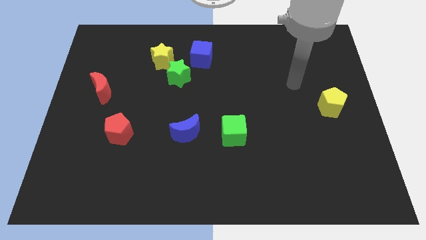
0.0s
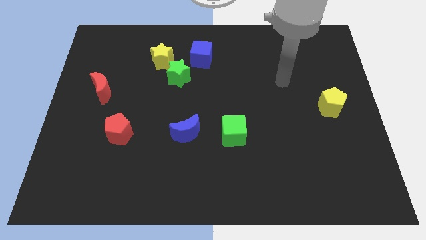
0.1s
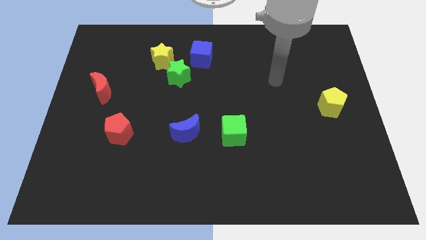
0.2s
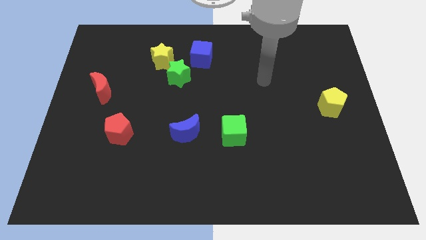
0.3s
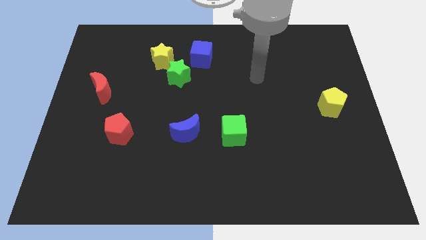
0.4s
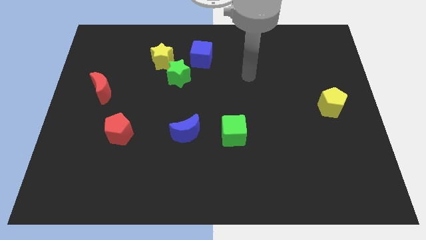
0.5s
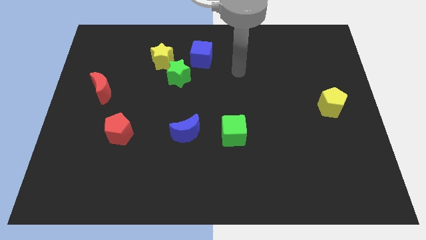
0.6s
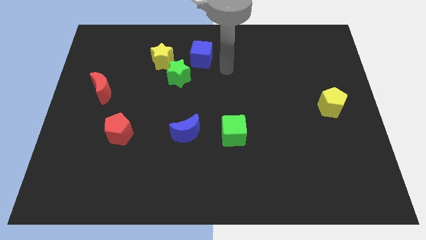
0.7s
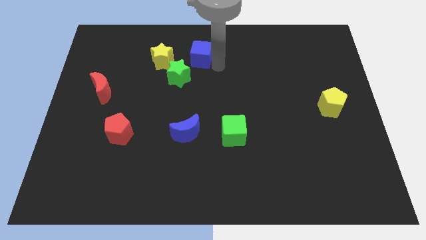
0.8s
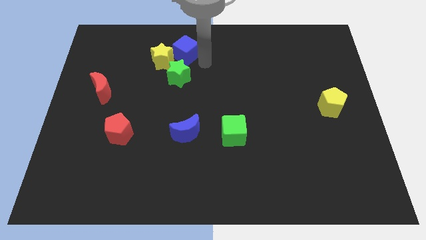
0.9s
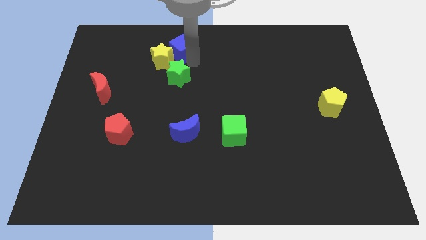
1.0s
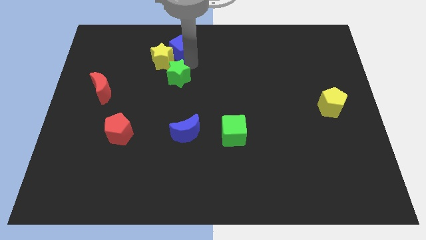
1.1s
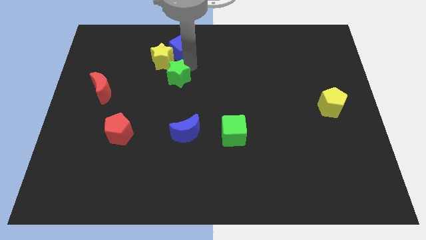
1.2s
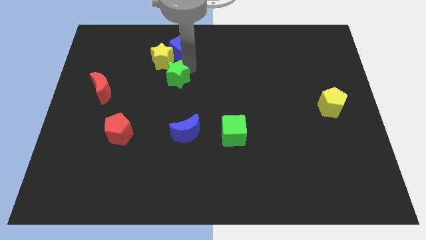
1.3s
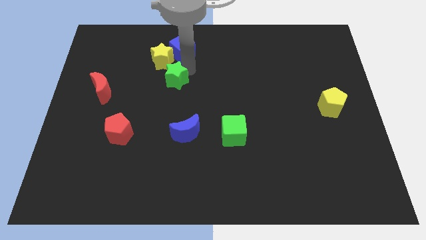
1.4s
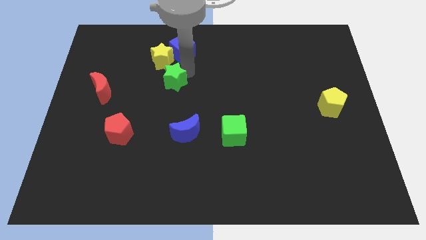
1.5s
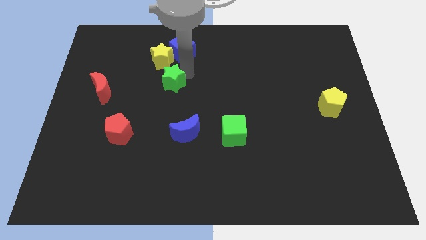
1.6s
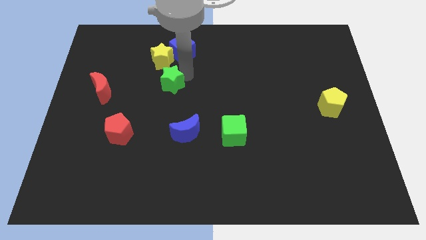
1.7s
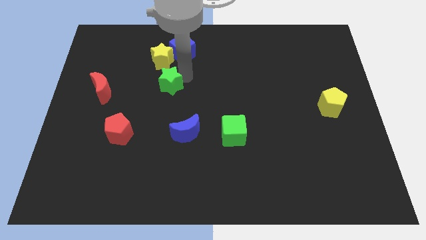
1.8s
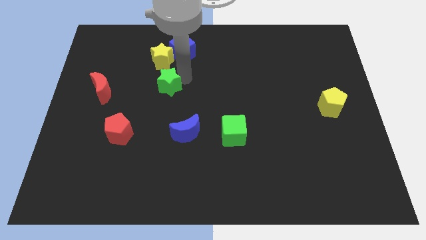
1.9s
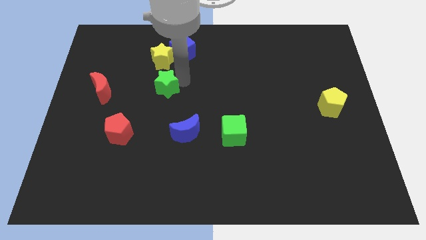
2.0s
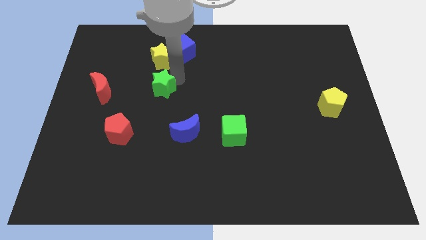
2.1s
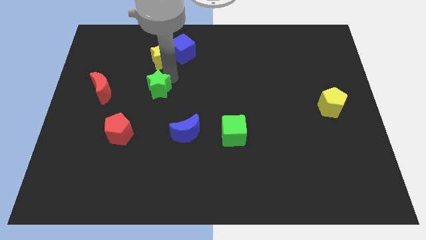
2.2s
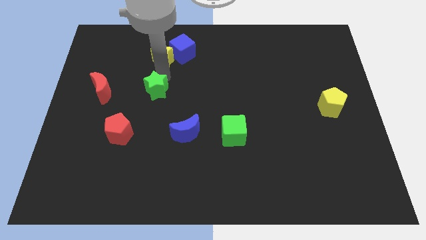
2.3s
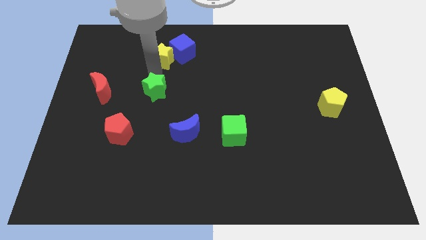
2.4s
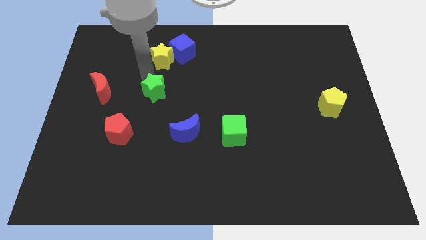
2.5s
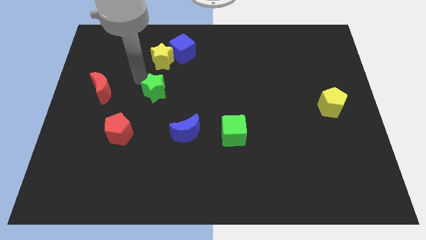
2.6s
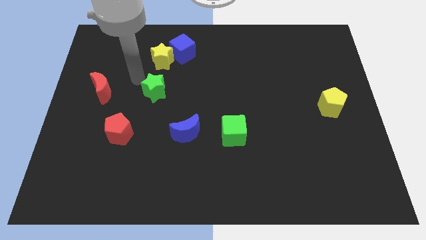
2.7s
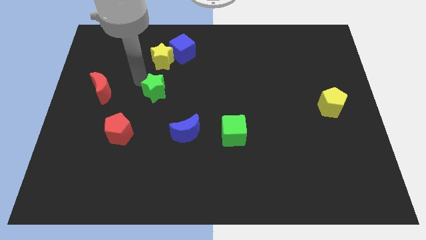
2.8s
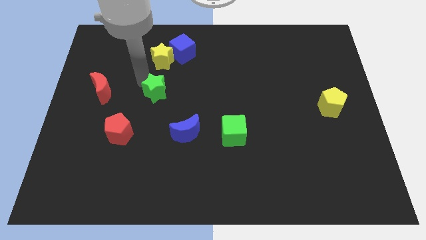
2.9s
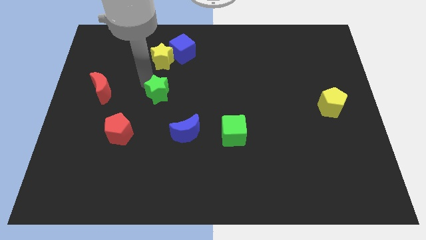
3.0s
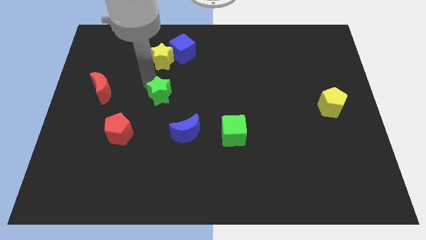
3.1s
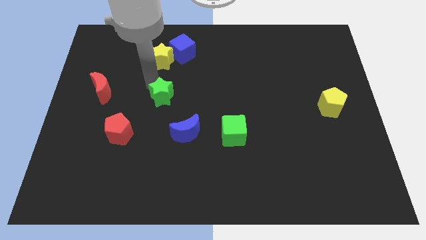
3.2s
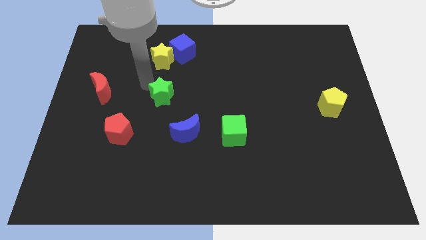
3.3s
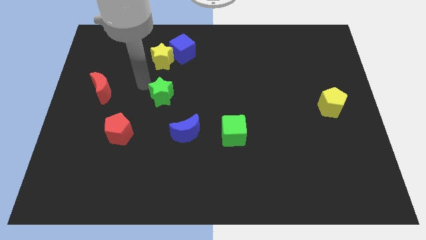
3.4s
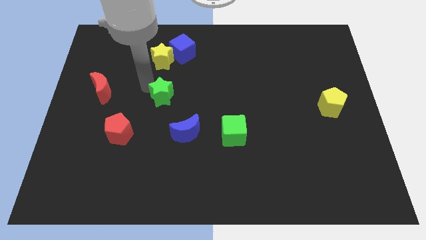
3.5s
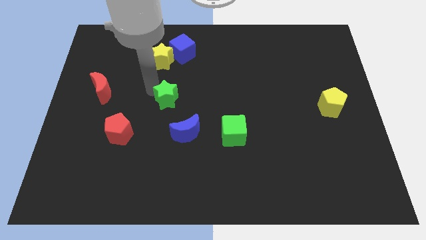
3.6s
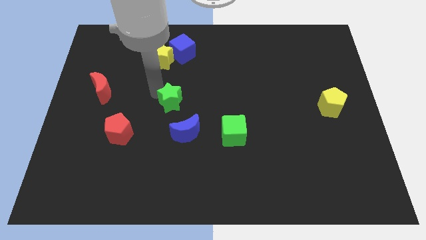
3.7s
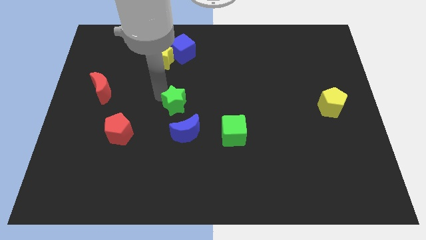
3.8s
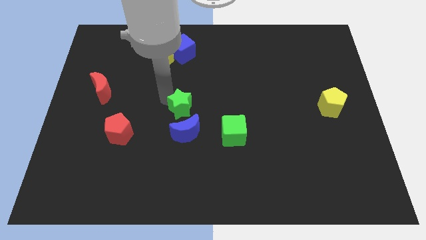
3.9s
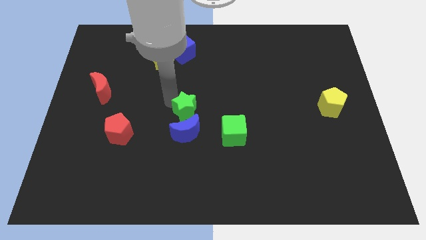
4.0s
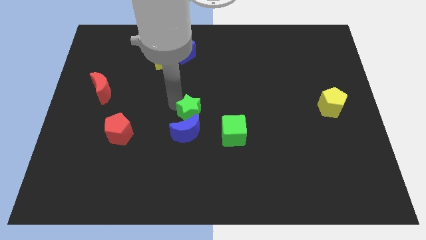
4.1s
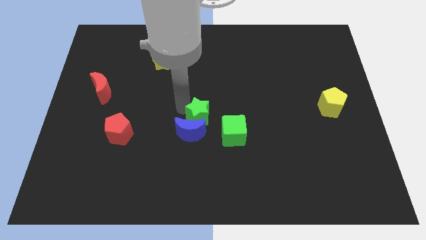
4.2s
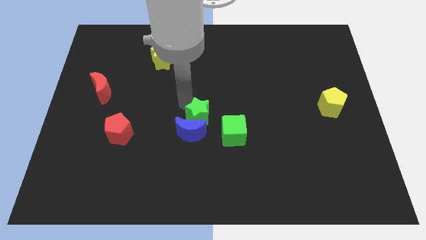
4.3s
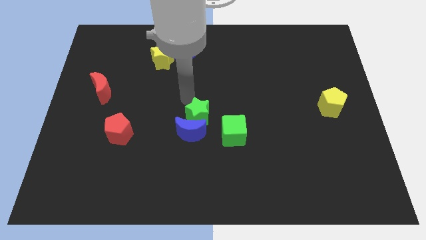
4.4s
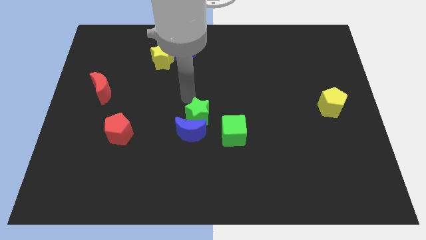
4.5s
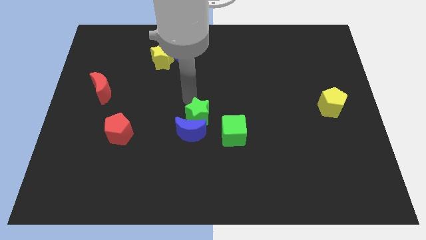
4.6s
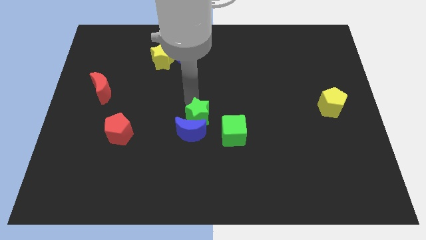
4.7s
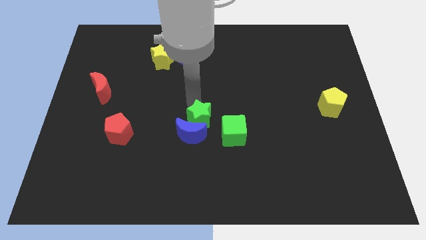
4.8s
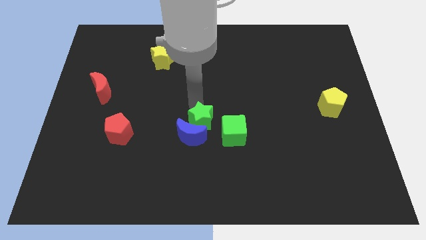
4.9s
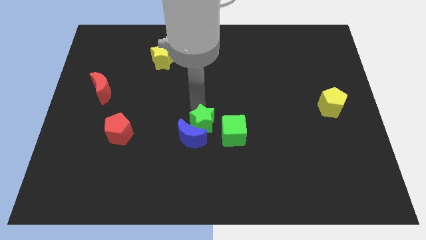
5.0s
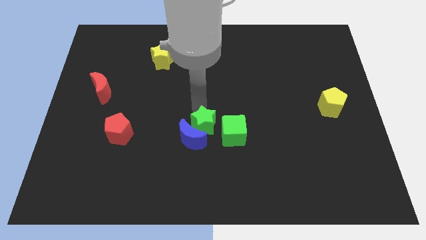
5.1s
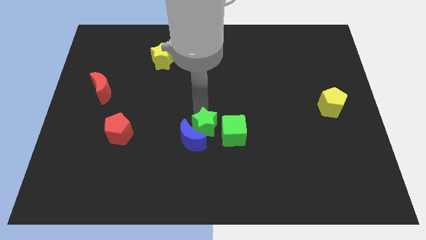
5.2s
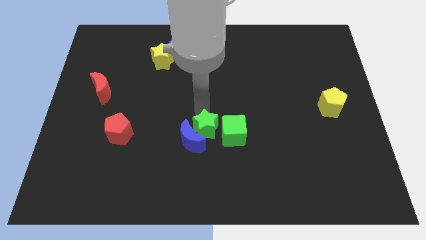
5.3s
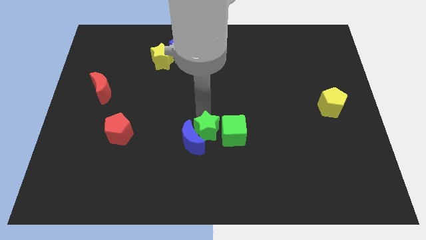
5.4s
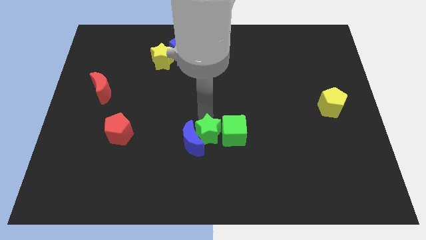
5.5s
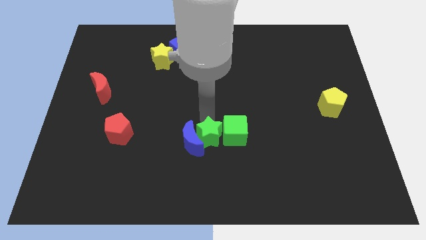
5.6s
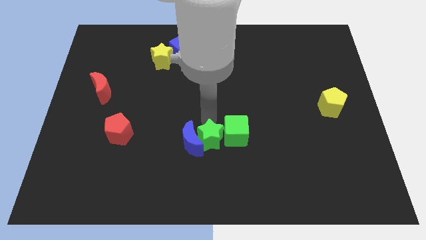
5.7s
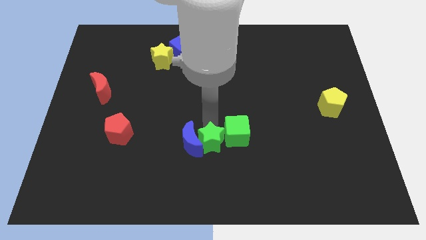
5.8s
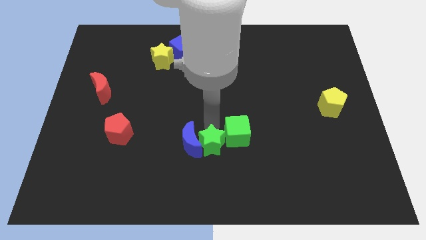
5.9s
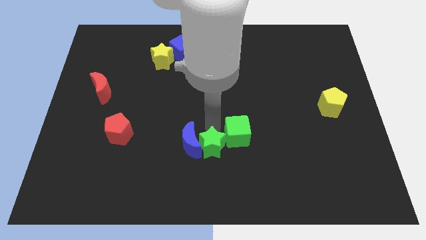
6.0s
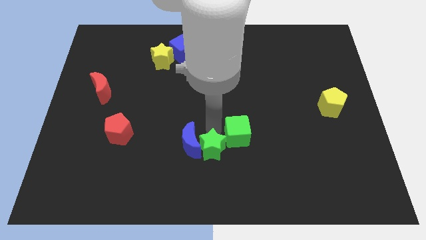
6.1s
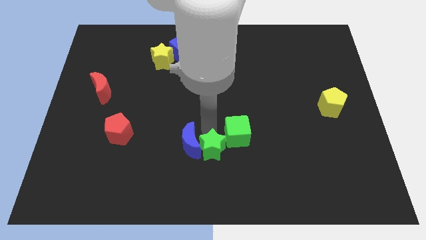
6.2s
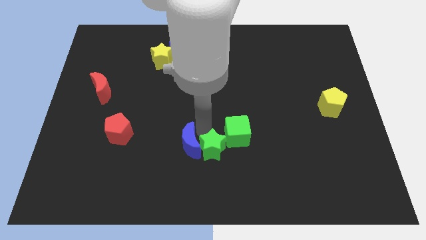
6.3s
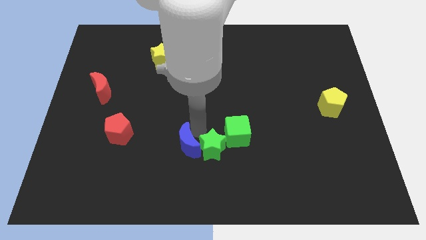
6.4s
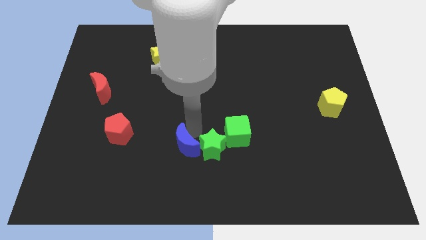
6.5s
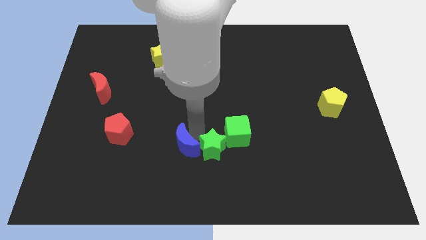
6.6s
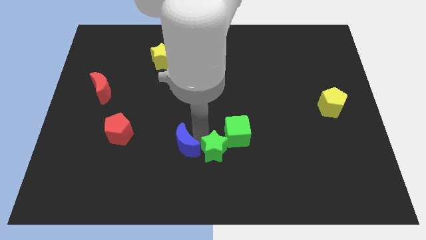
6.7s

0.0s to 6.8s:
slide the green star to the bottom side of the green cube

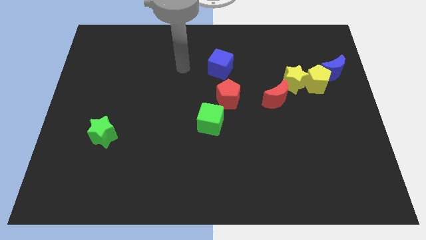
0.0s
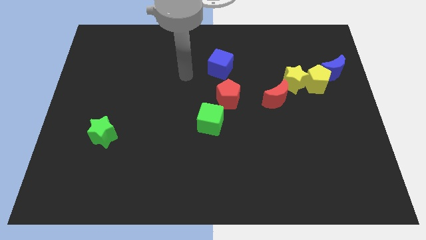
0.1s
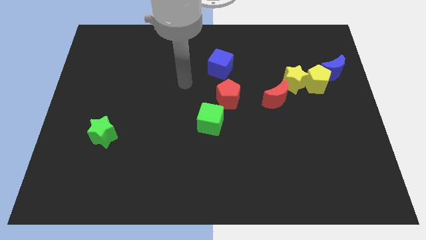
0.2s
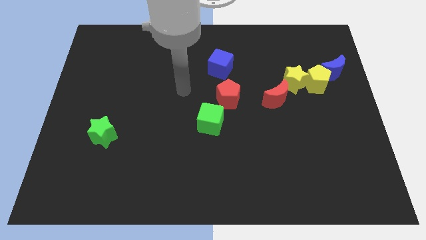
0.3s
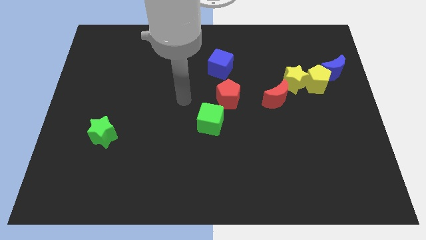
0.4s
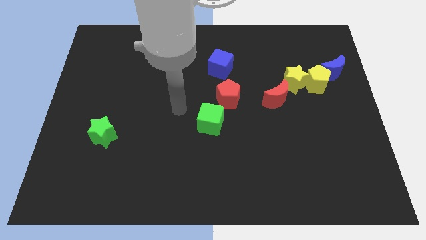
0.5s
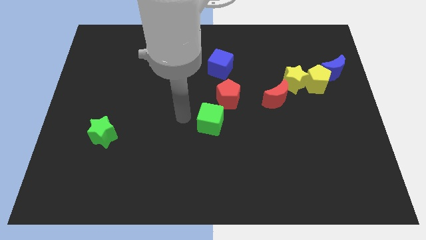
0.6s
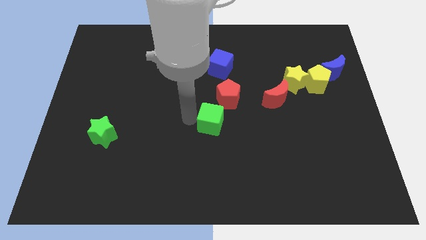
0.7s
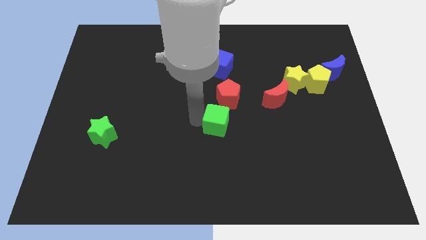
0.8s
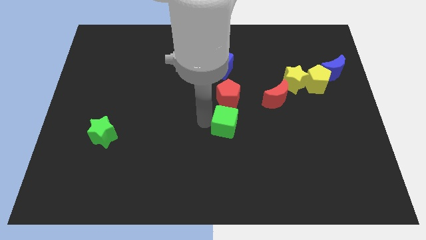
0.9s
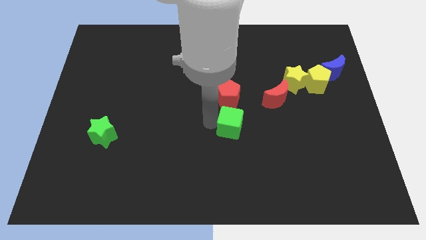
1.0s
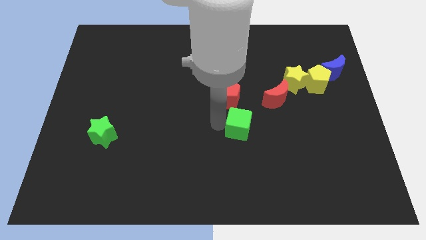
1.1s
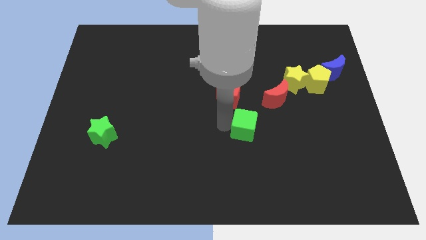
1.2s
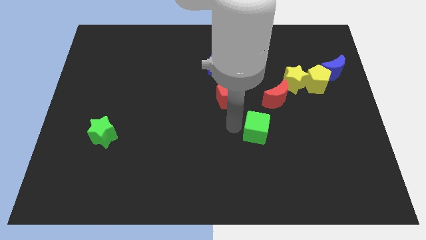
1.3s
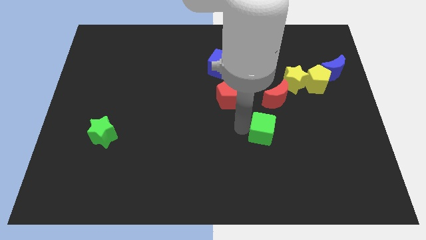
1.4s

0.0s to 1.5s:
put the green cube below the red moon
